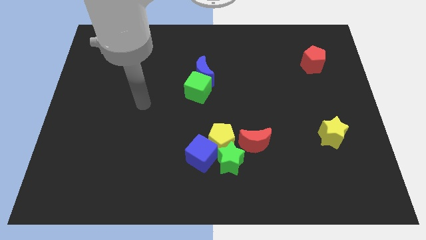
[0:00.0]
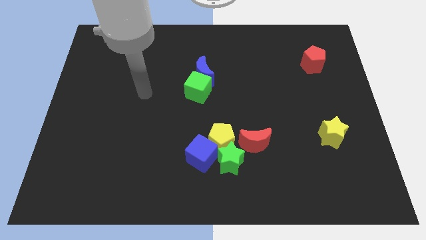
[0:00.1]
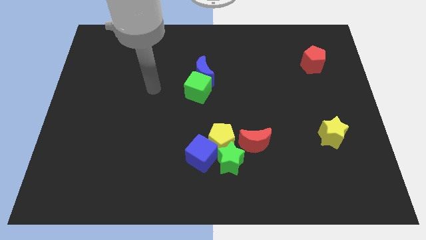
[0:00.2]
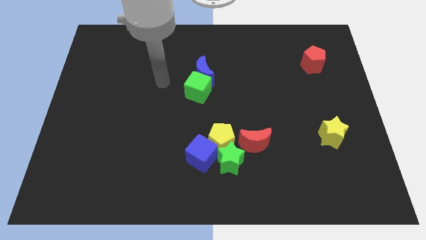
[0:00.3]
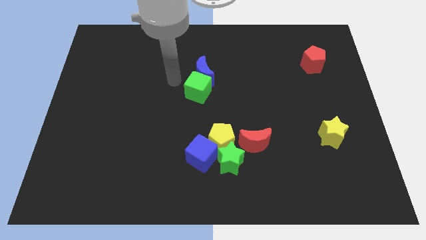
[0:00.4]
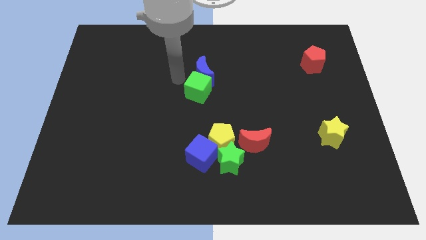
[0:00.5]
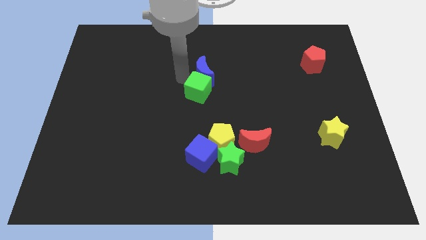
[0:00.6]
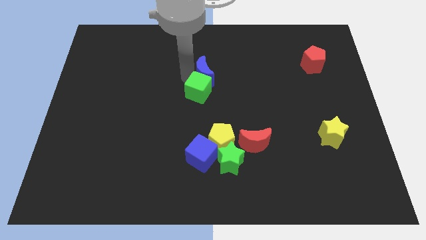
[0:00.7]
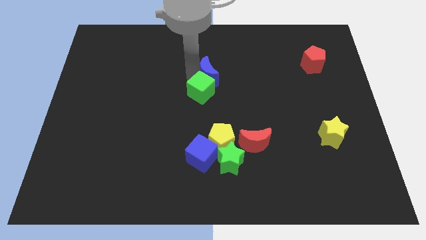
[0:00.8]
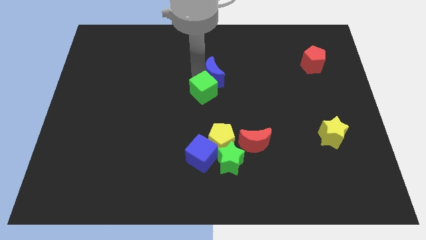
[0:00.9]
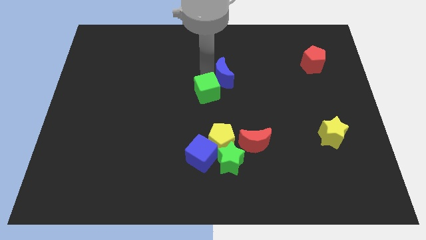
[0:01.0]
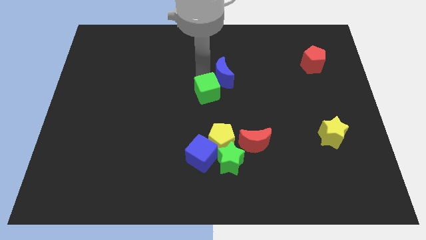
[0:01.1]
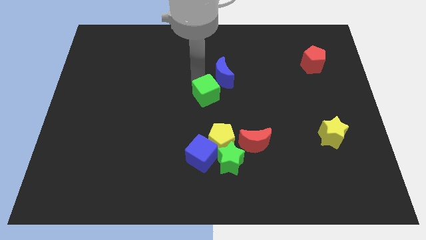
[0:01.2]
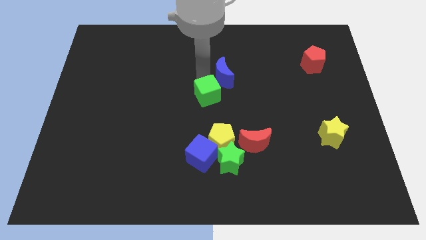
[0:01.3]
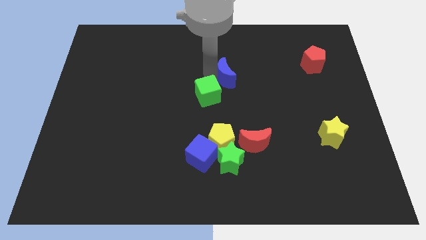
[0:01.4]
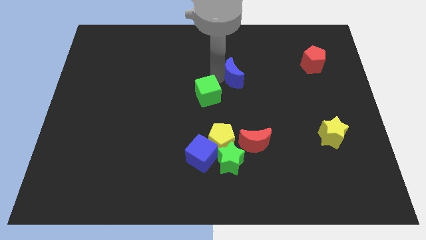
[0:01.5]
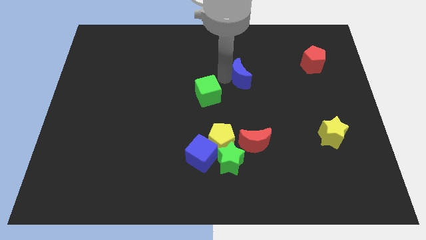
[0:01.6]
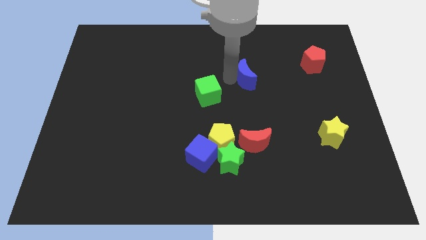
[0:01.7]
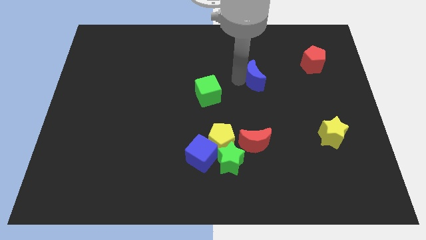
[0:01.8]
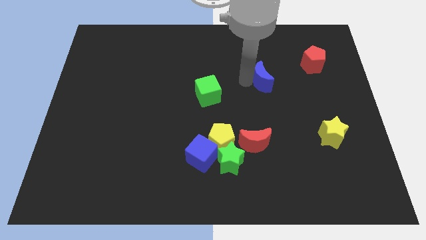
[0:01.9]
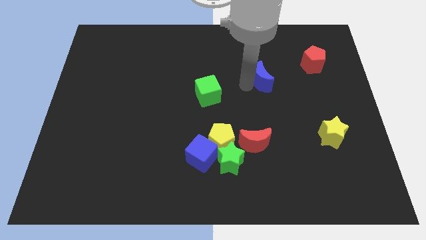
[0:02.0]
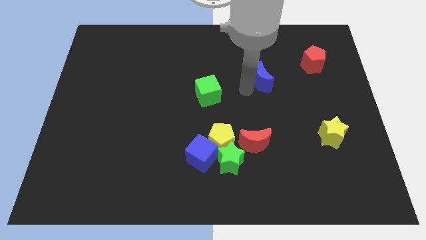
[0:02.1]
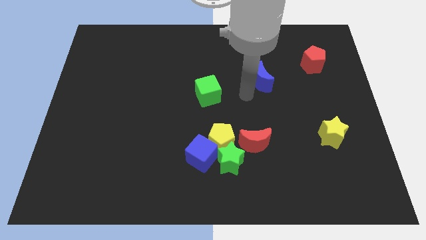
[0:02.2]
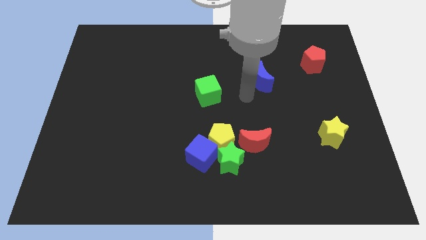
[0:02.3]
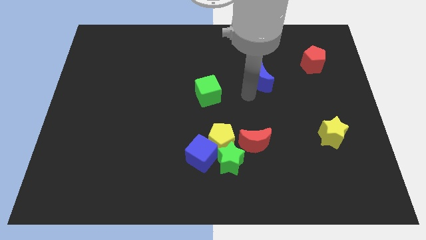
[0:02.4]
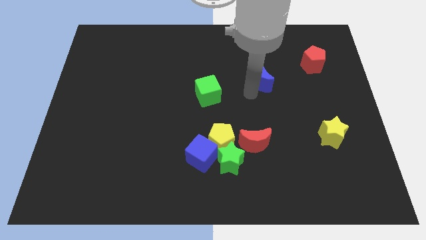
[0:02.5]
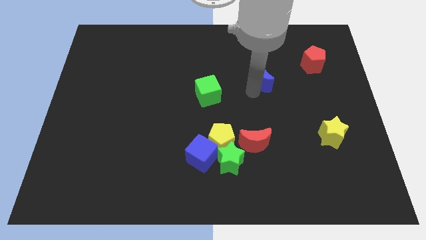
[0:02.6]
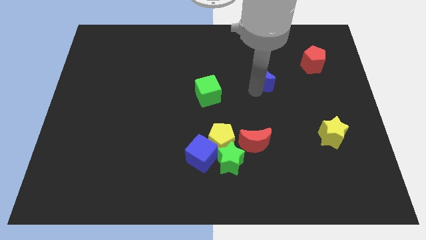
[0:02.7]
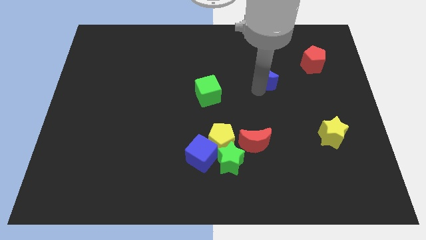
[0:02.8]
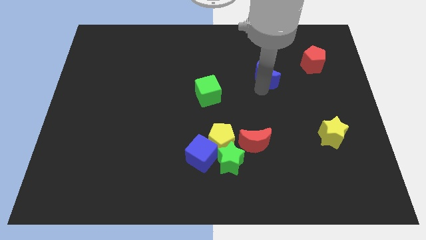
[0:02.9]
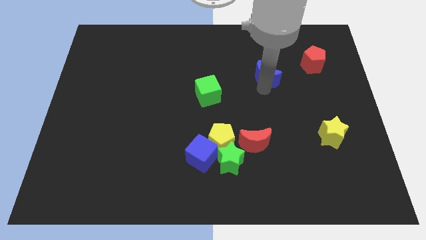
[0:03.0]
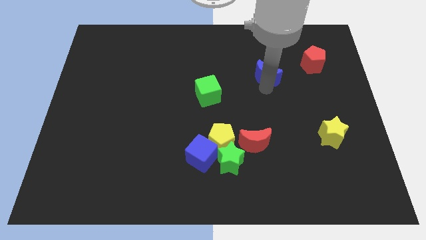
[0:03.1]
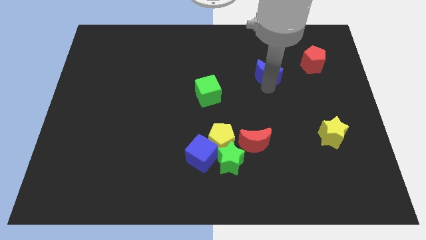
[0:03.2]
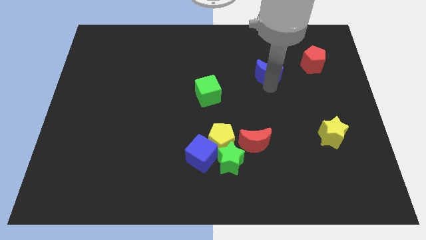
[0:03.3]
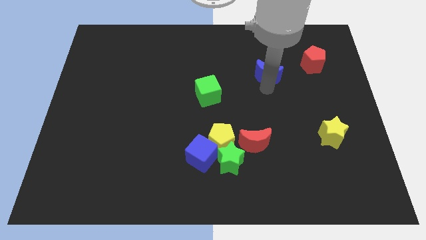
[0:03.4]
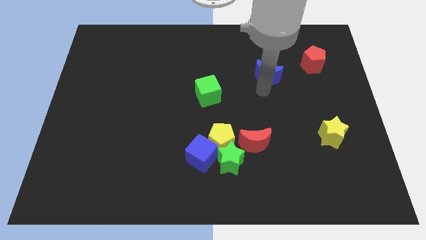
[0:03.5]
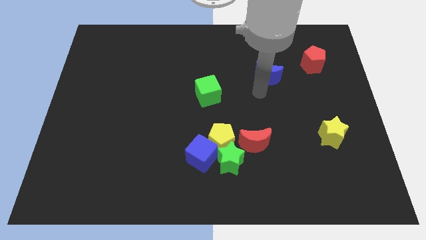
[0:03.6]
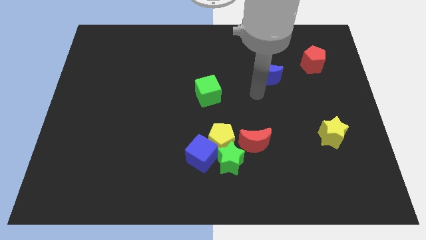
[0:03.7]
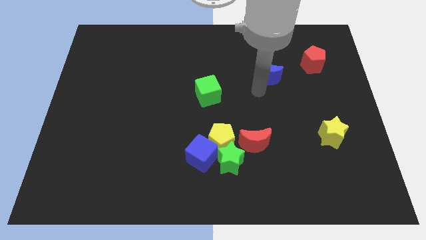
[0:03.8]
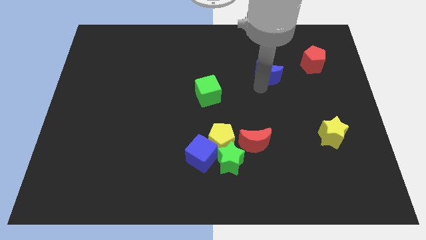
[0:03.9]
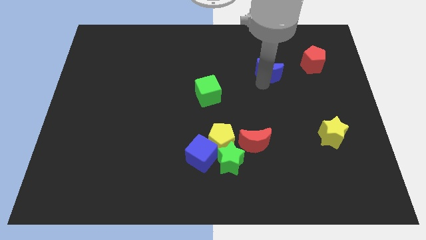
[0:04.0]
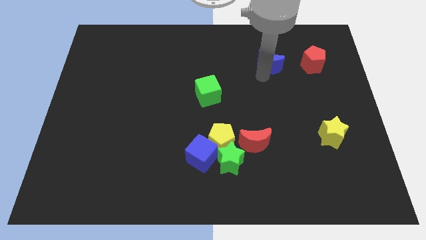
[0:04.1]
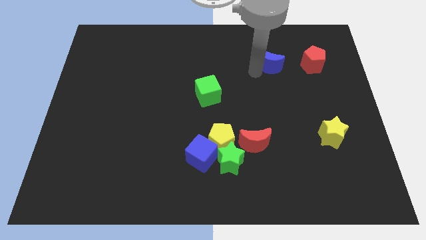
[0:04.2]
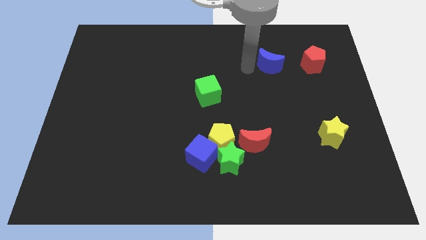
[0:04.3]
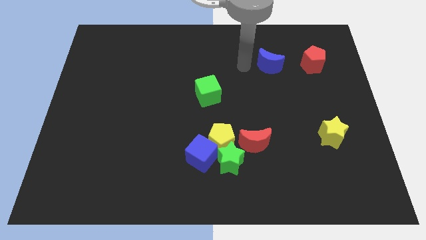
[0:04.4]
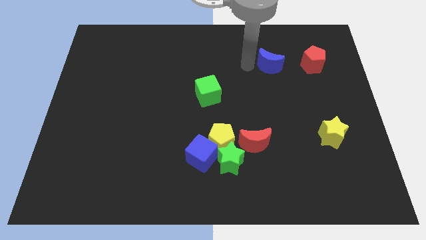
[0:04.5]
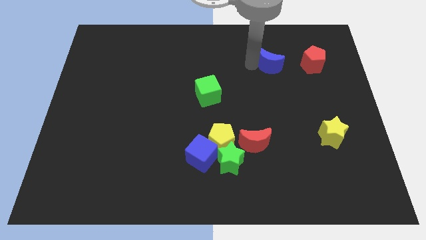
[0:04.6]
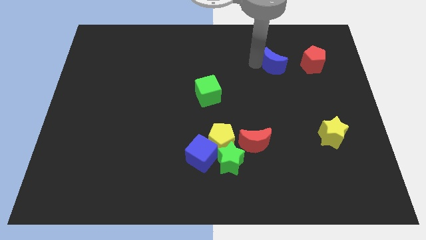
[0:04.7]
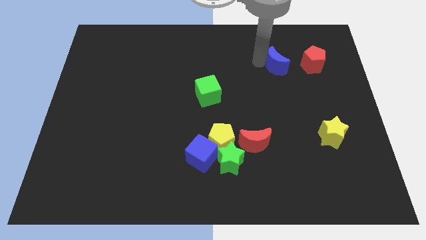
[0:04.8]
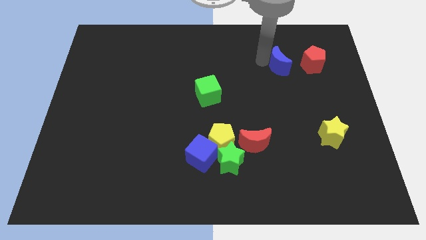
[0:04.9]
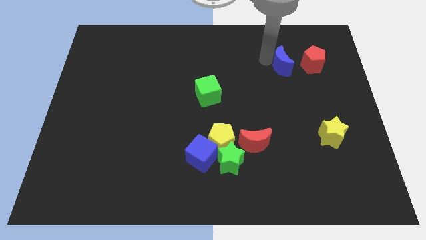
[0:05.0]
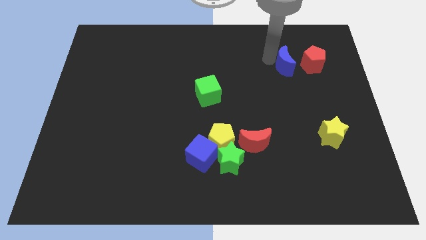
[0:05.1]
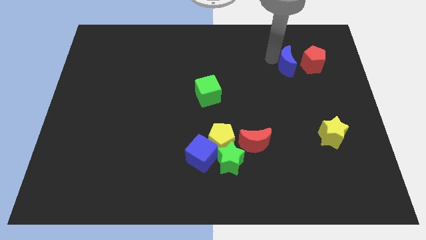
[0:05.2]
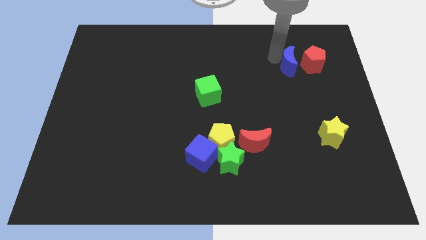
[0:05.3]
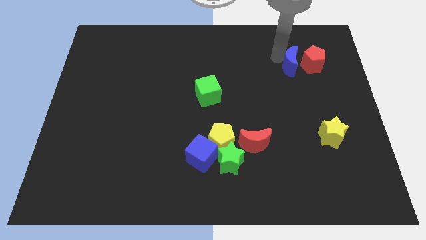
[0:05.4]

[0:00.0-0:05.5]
put the blue moon close to the red pentagon

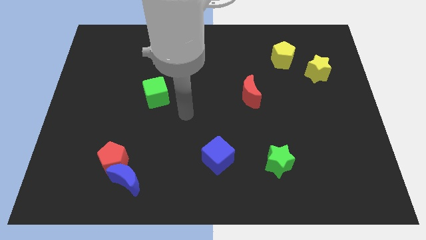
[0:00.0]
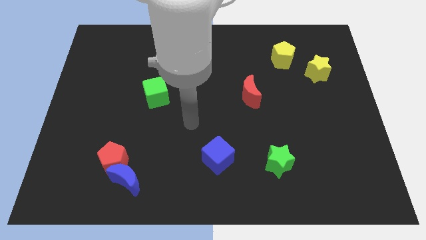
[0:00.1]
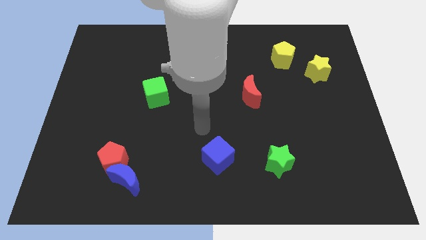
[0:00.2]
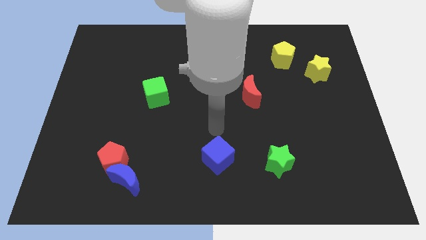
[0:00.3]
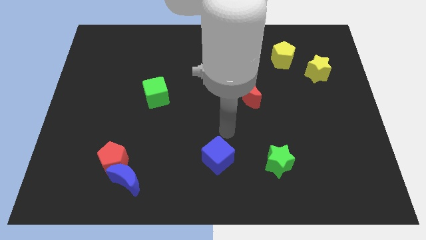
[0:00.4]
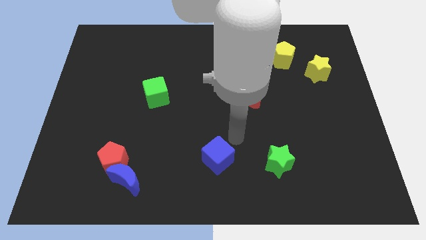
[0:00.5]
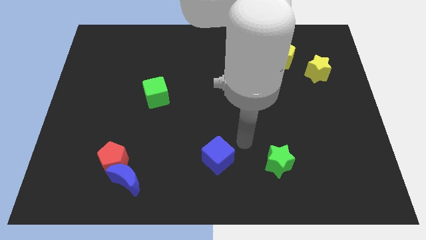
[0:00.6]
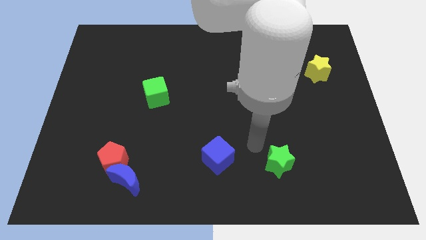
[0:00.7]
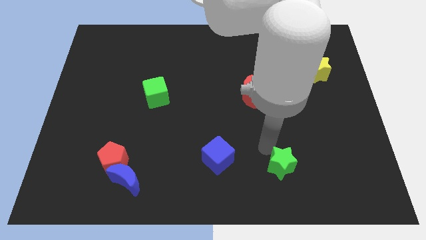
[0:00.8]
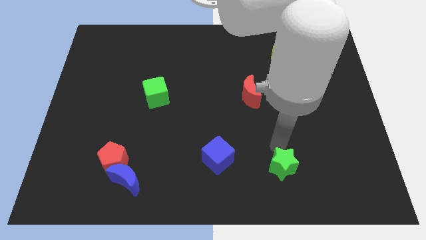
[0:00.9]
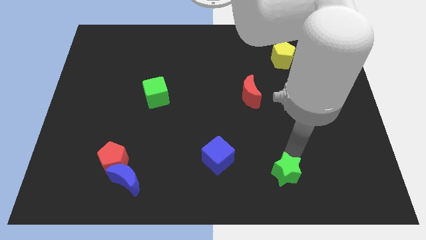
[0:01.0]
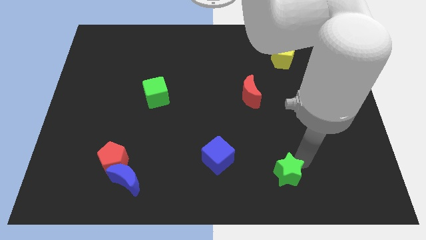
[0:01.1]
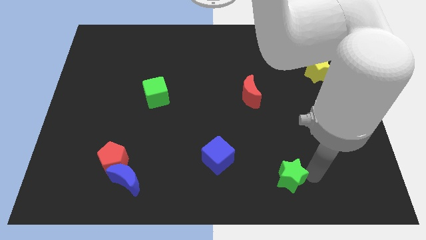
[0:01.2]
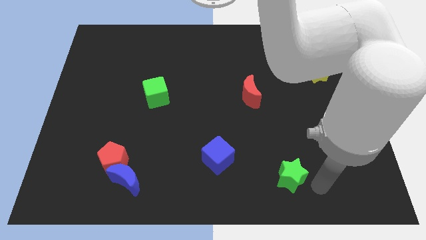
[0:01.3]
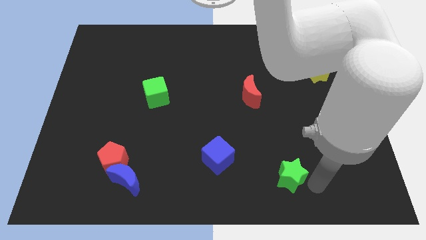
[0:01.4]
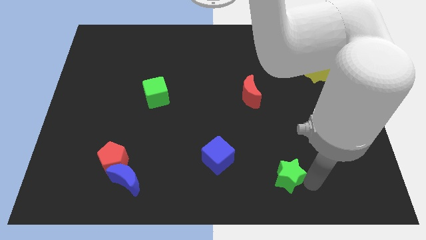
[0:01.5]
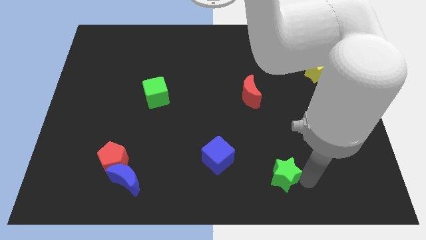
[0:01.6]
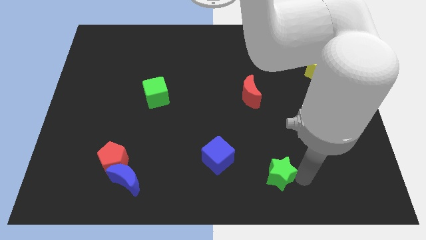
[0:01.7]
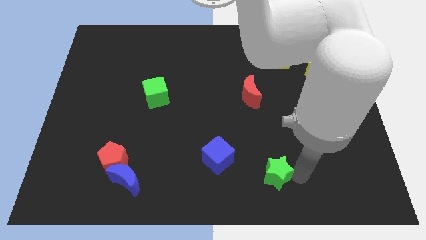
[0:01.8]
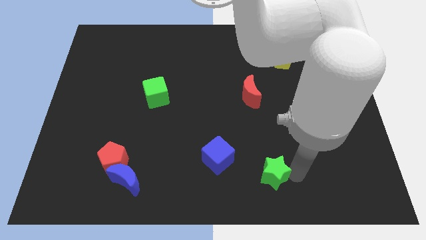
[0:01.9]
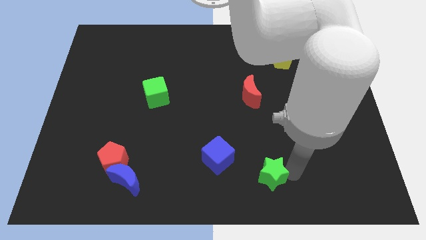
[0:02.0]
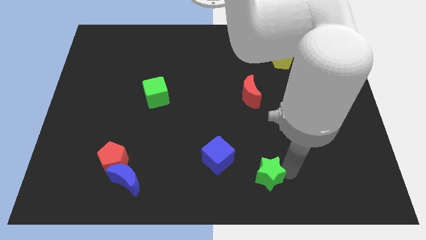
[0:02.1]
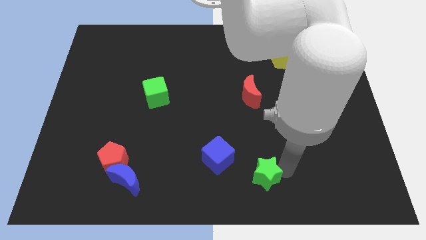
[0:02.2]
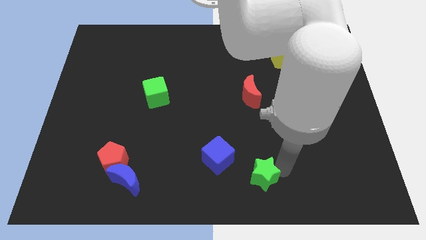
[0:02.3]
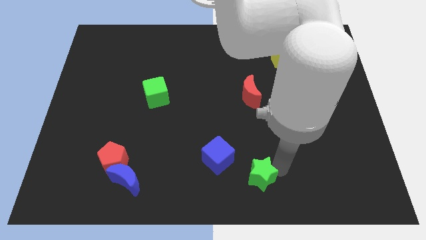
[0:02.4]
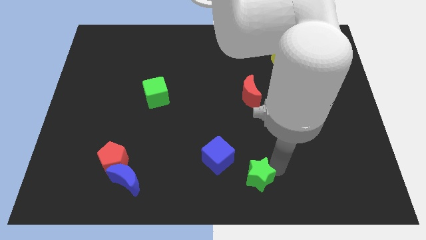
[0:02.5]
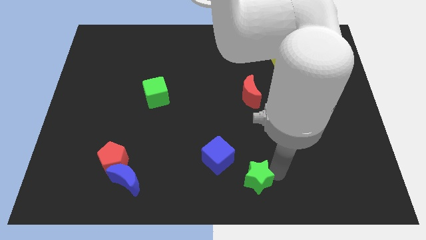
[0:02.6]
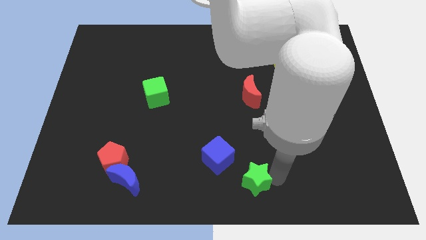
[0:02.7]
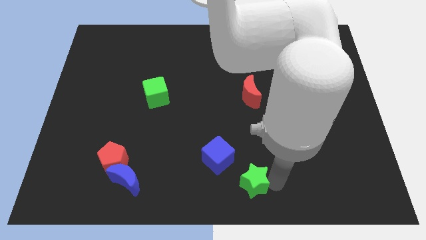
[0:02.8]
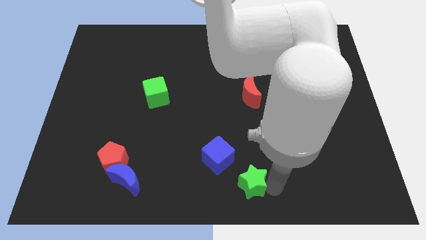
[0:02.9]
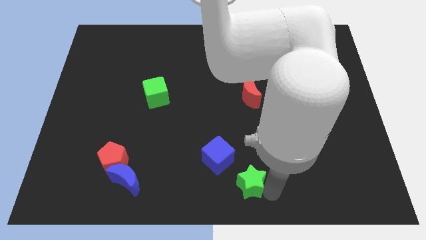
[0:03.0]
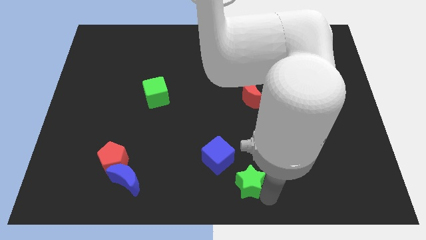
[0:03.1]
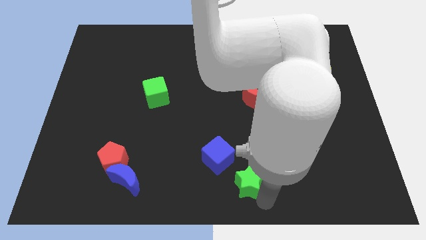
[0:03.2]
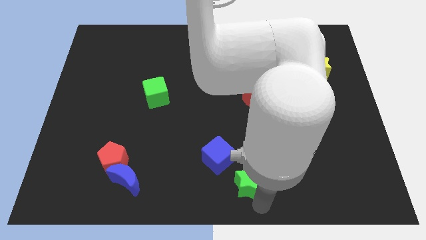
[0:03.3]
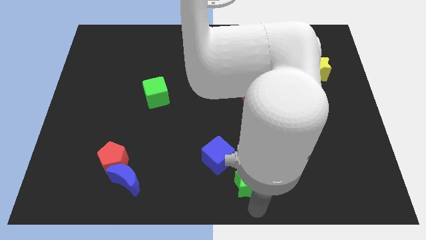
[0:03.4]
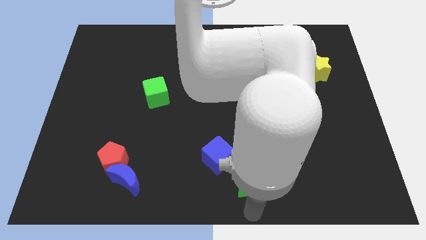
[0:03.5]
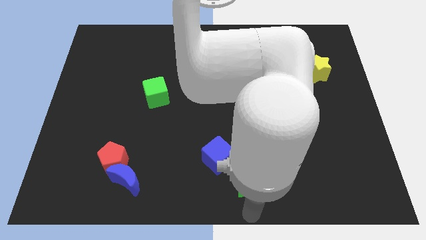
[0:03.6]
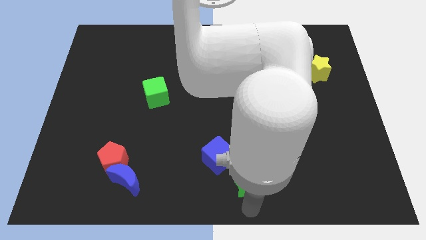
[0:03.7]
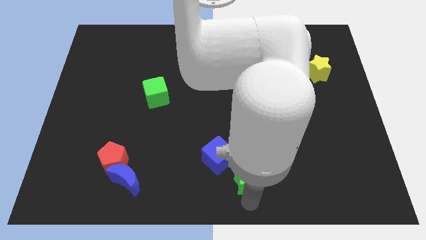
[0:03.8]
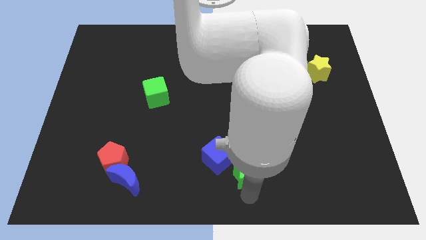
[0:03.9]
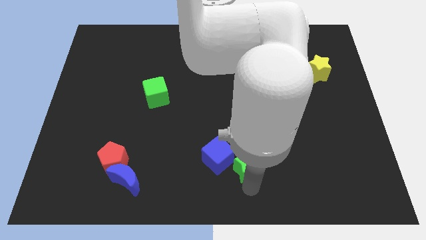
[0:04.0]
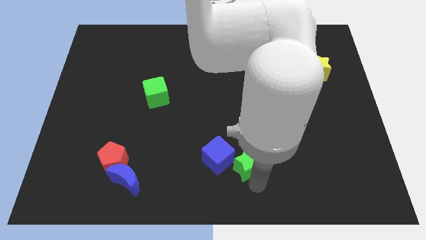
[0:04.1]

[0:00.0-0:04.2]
put the green star next to the blue cube
